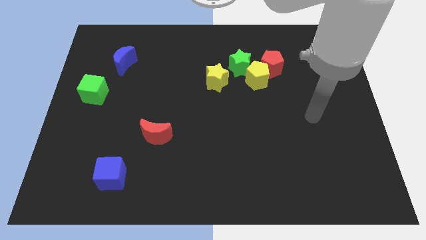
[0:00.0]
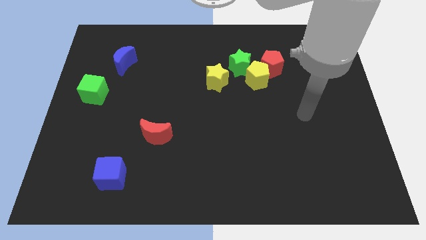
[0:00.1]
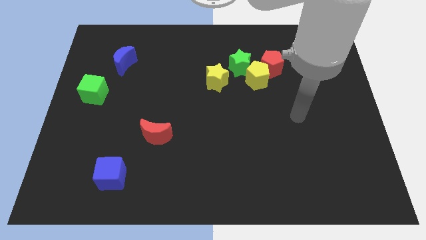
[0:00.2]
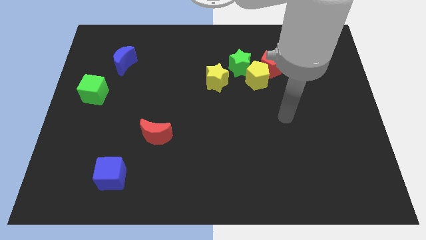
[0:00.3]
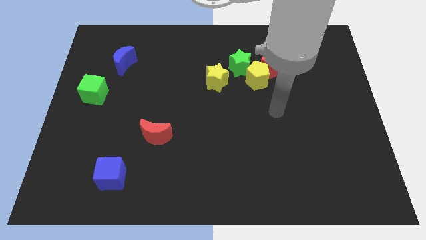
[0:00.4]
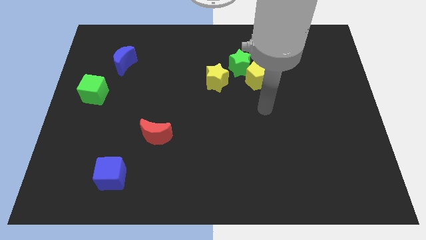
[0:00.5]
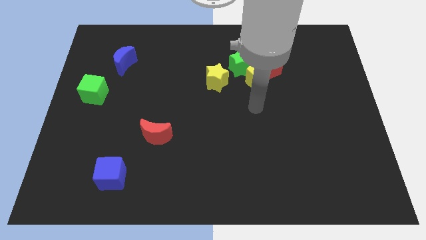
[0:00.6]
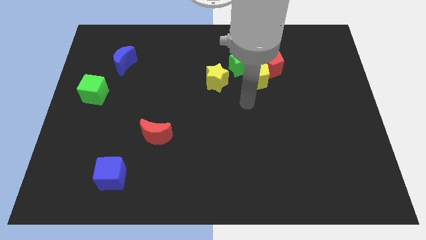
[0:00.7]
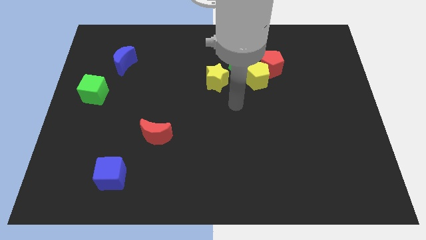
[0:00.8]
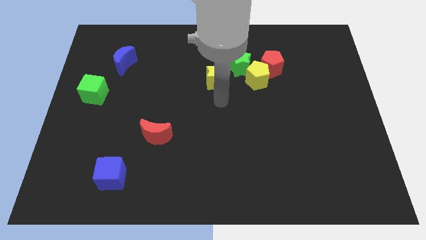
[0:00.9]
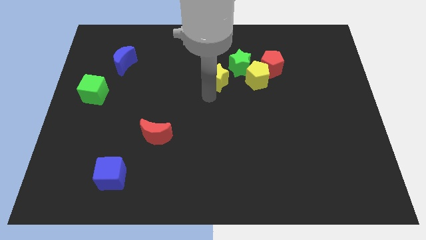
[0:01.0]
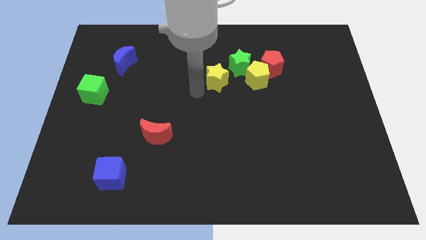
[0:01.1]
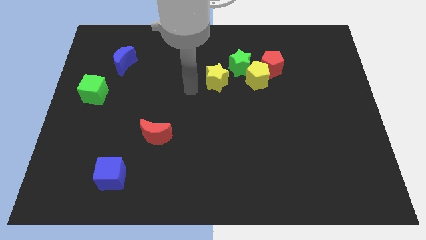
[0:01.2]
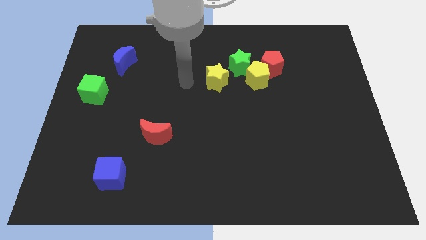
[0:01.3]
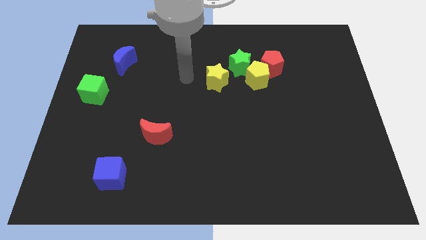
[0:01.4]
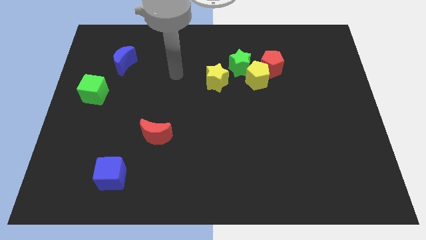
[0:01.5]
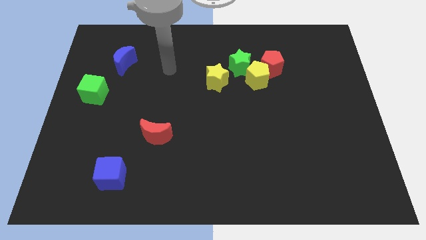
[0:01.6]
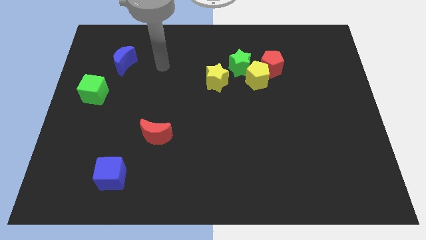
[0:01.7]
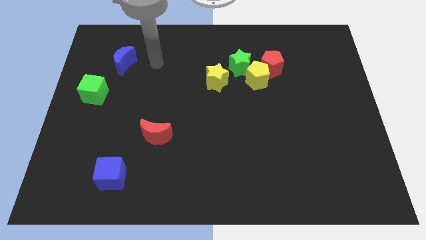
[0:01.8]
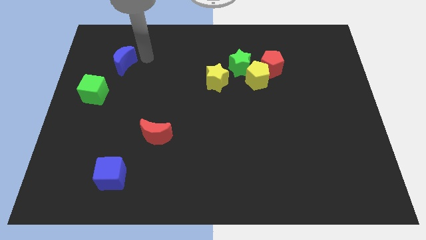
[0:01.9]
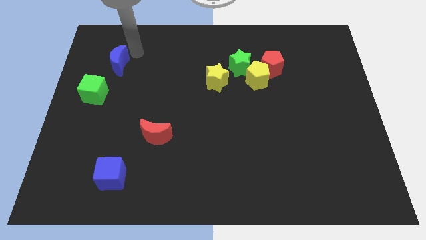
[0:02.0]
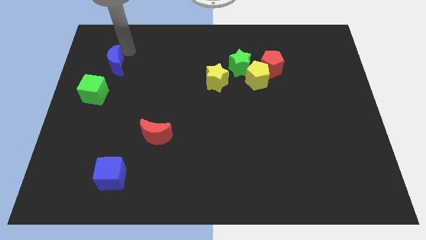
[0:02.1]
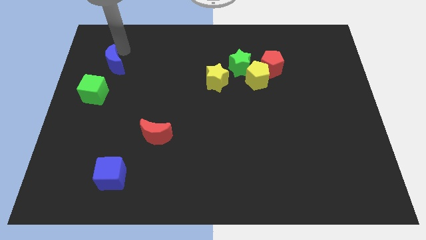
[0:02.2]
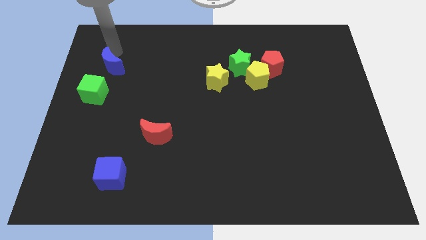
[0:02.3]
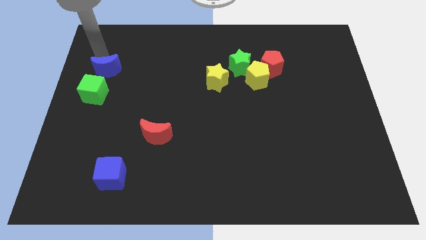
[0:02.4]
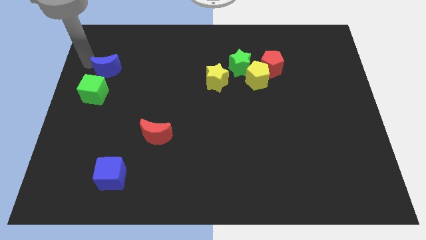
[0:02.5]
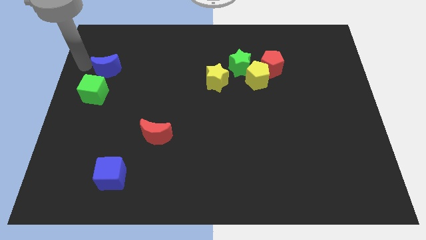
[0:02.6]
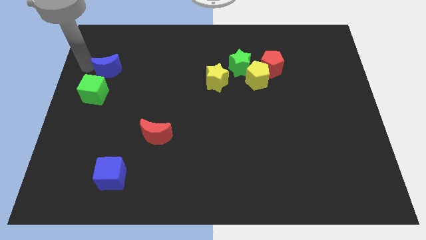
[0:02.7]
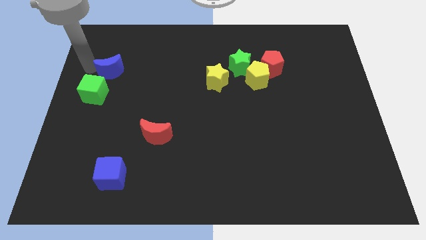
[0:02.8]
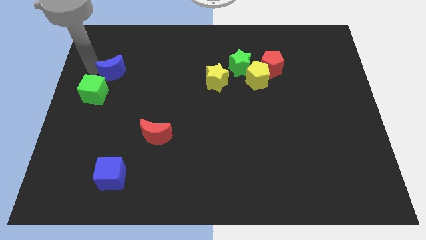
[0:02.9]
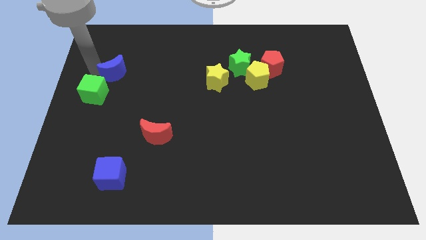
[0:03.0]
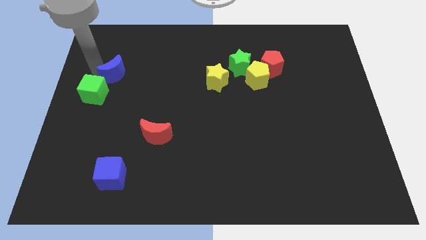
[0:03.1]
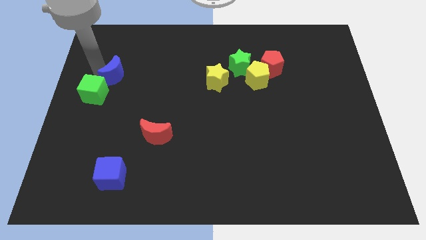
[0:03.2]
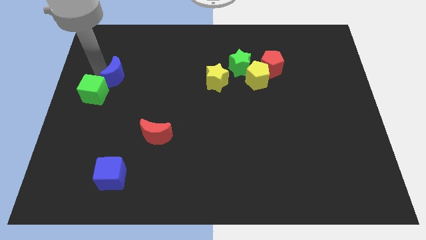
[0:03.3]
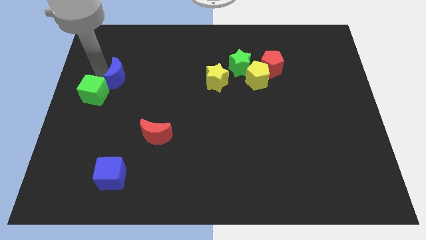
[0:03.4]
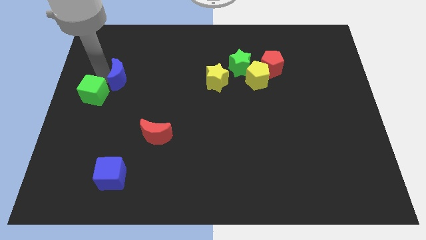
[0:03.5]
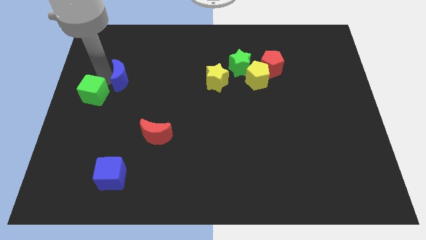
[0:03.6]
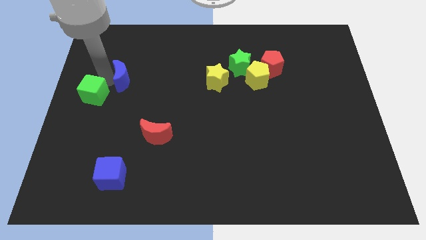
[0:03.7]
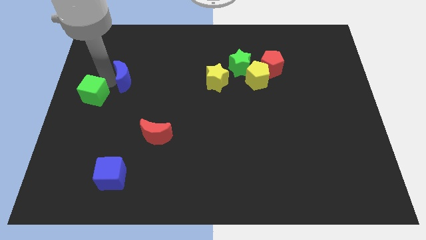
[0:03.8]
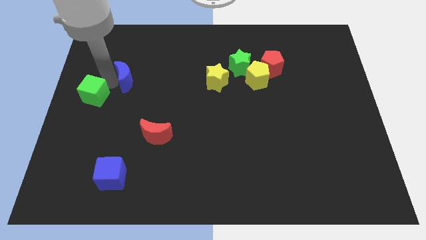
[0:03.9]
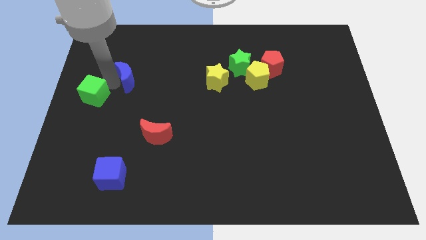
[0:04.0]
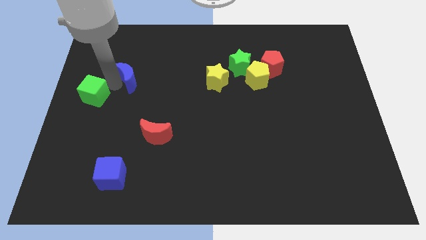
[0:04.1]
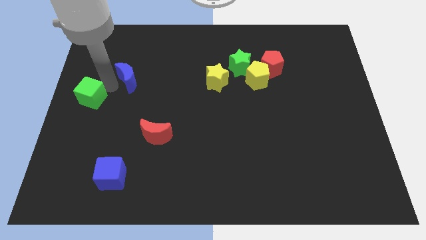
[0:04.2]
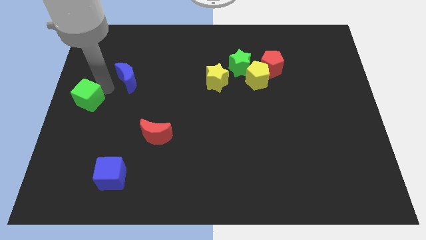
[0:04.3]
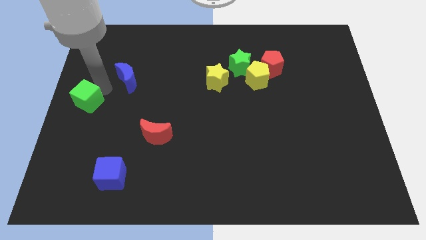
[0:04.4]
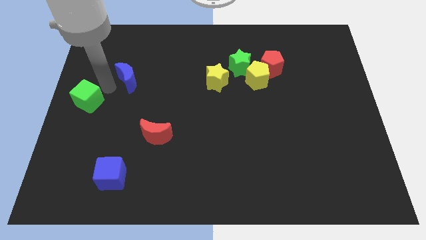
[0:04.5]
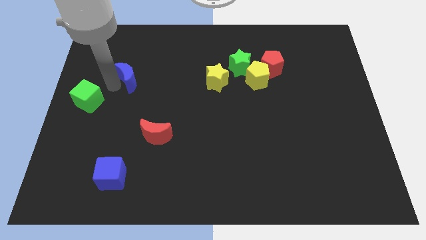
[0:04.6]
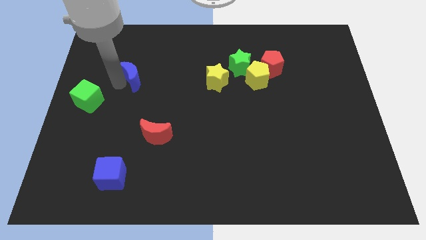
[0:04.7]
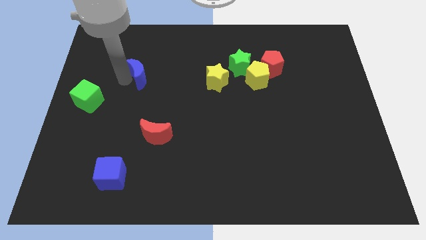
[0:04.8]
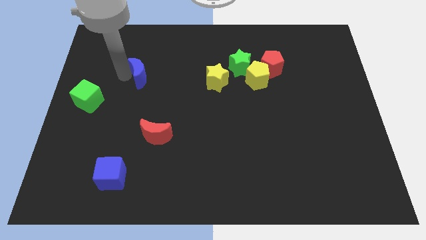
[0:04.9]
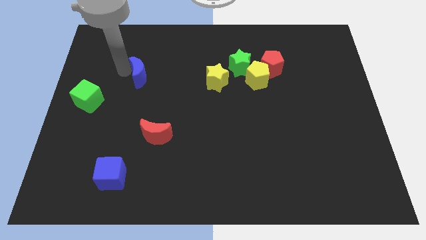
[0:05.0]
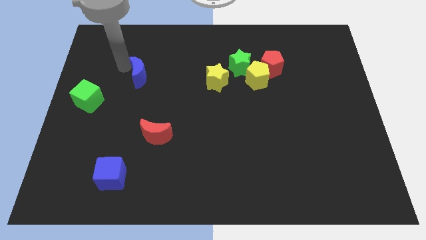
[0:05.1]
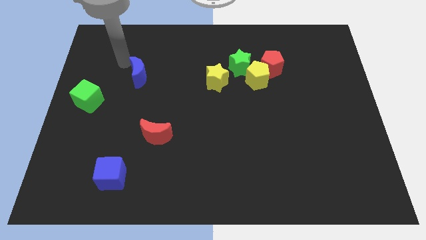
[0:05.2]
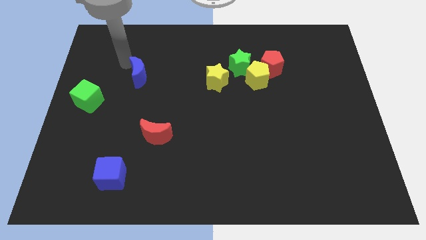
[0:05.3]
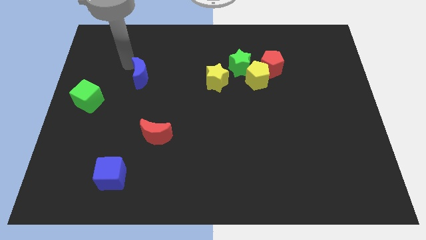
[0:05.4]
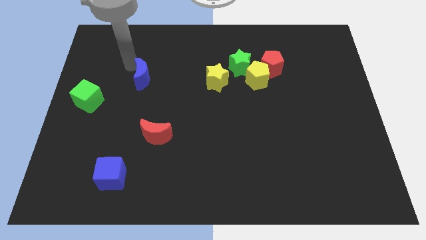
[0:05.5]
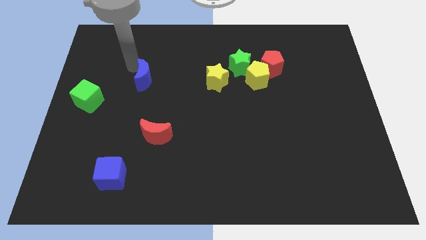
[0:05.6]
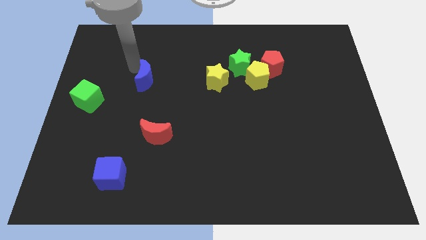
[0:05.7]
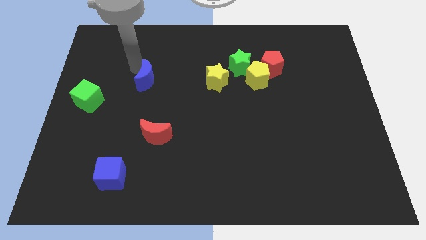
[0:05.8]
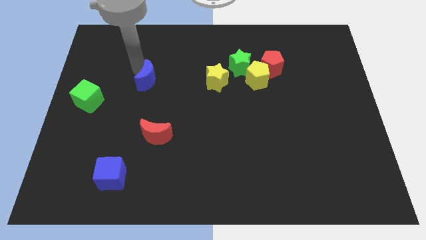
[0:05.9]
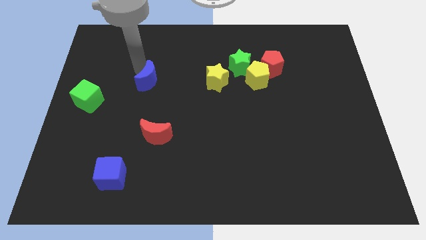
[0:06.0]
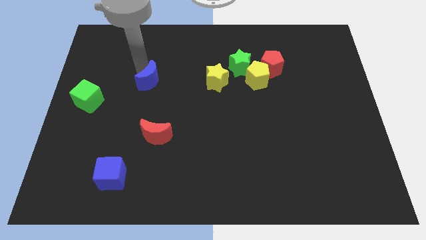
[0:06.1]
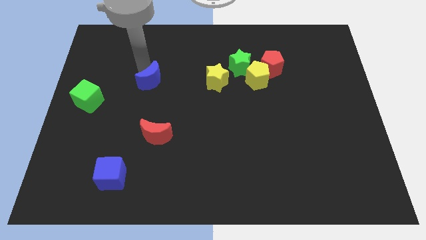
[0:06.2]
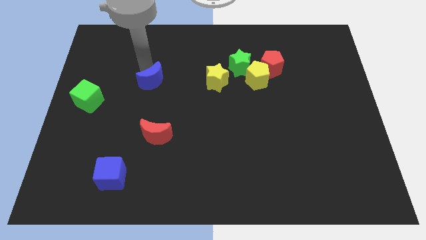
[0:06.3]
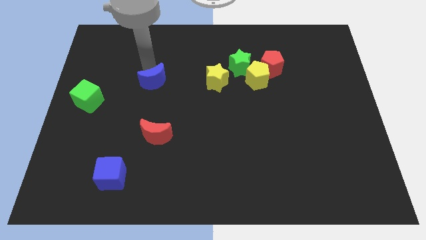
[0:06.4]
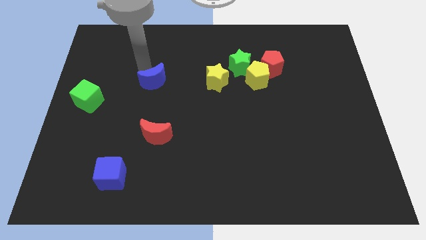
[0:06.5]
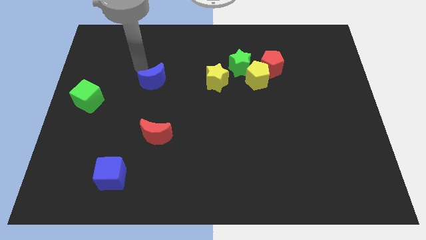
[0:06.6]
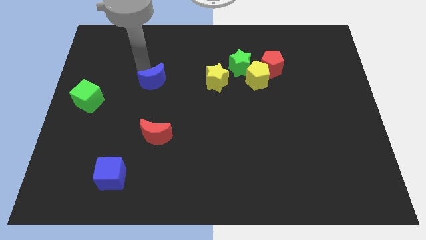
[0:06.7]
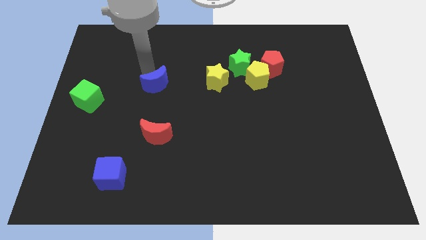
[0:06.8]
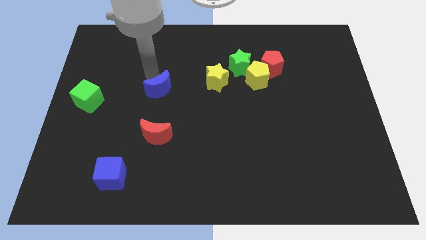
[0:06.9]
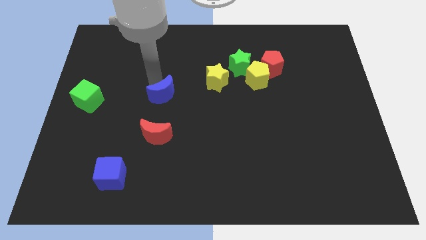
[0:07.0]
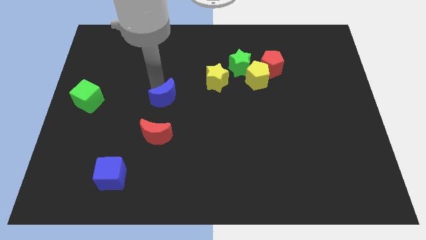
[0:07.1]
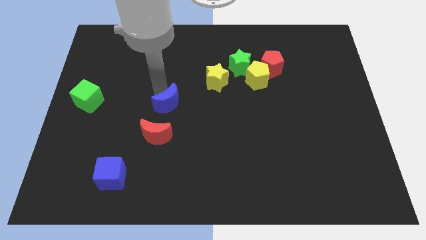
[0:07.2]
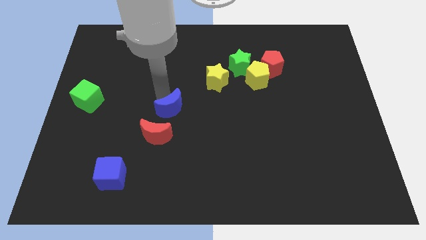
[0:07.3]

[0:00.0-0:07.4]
move the blue moon down and then to the right

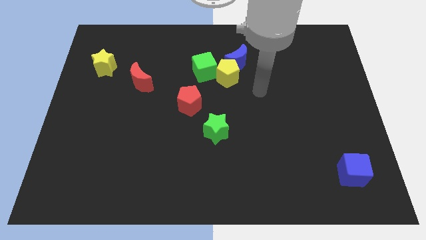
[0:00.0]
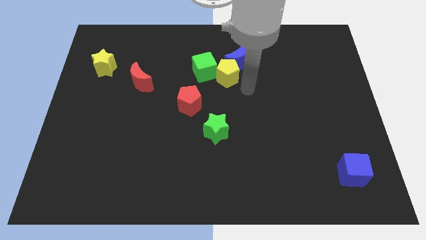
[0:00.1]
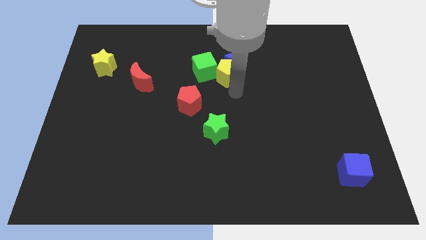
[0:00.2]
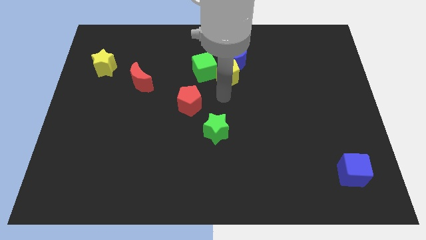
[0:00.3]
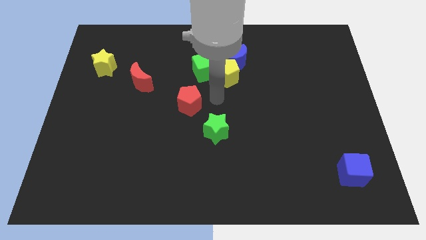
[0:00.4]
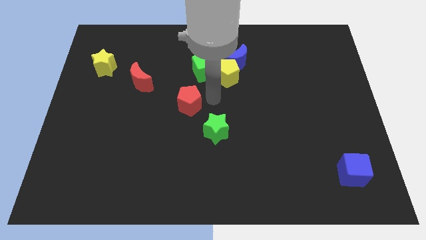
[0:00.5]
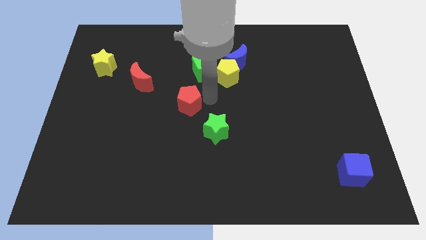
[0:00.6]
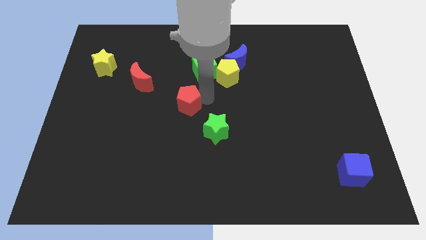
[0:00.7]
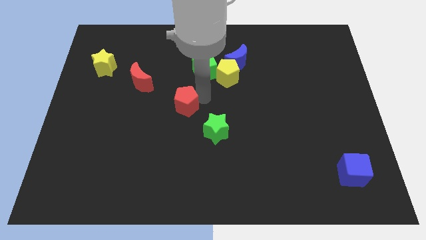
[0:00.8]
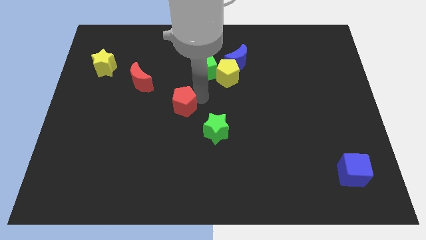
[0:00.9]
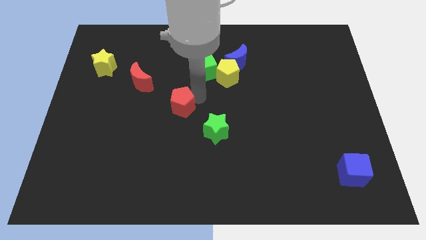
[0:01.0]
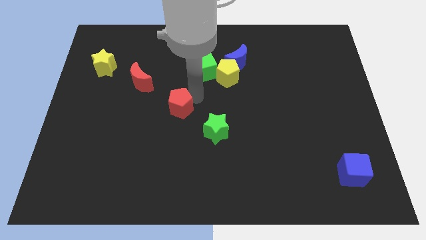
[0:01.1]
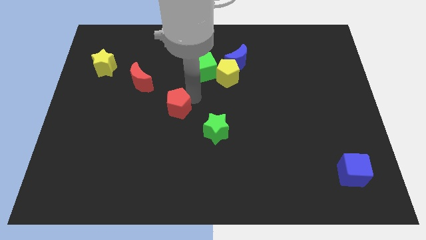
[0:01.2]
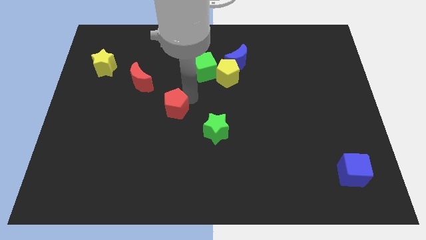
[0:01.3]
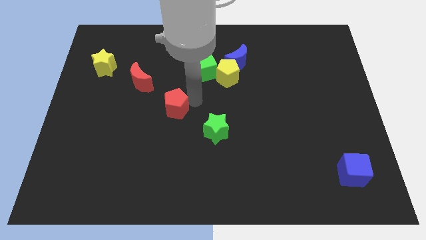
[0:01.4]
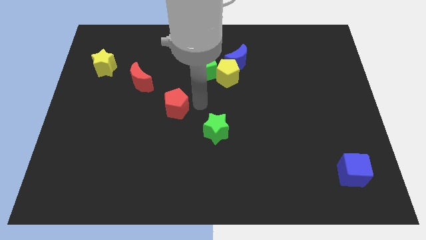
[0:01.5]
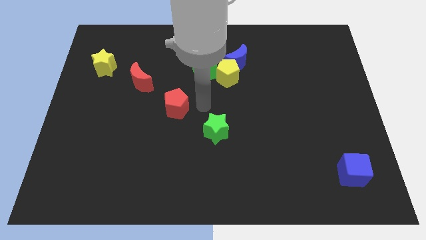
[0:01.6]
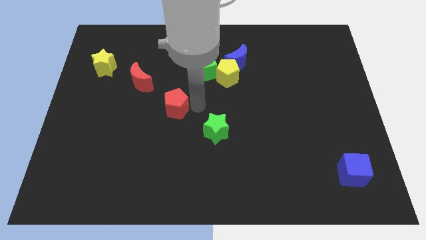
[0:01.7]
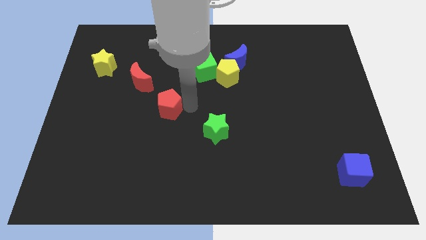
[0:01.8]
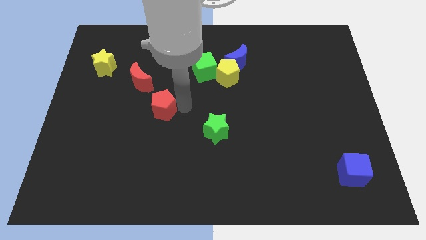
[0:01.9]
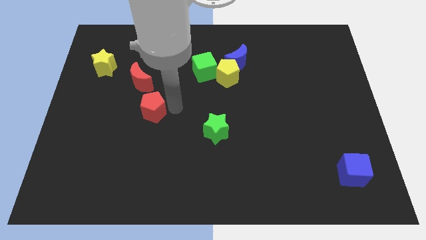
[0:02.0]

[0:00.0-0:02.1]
slightly slide the red pentagon to the left
